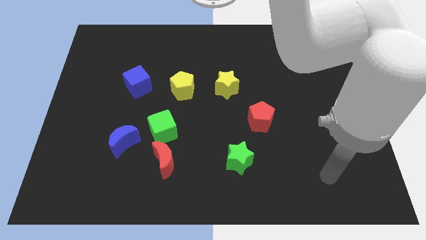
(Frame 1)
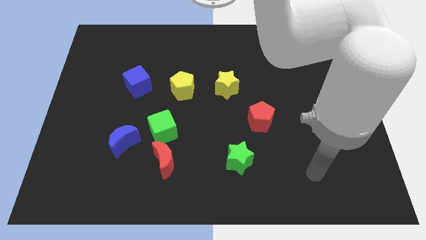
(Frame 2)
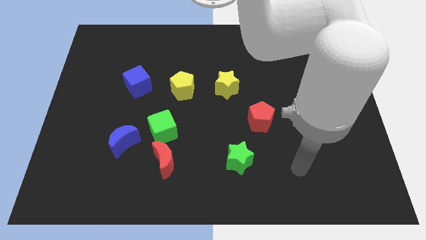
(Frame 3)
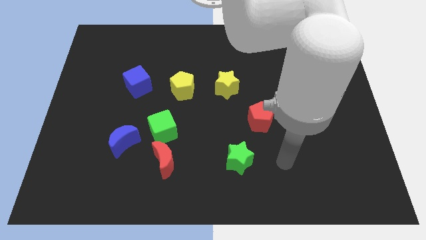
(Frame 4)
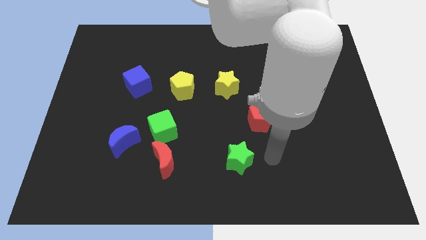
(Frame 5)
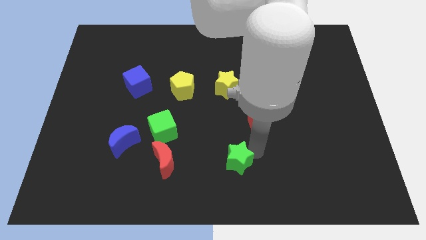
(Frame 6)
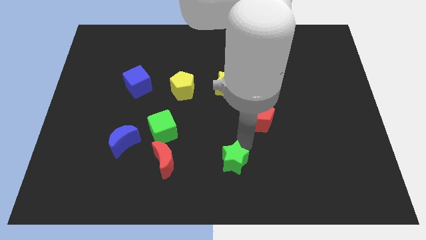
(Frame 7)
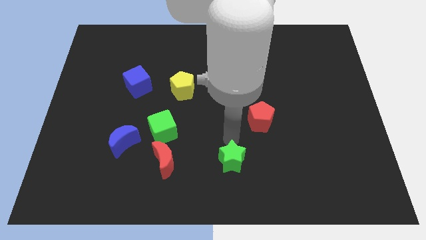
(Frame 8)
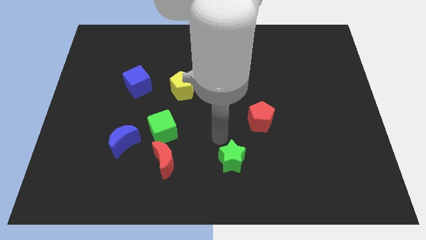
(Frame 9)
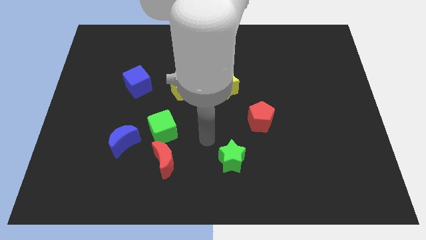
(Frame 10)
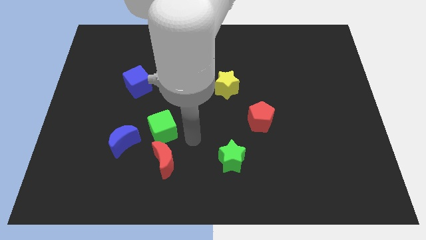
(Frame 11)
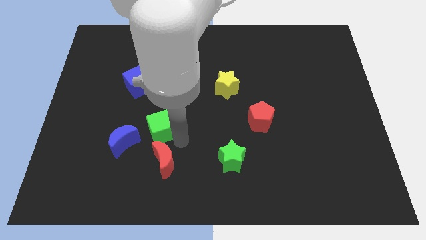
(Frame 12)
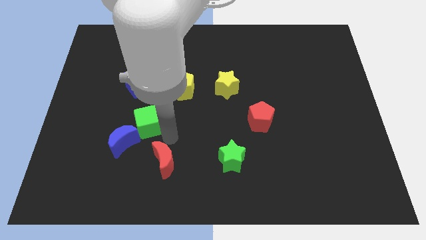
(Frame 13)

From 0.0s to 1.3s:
separate the red moon from the green cube

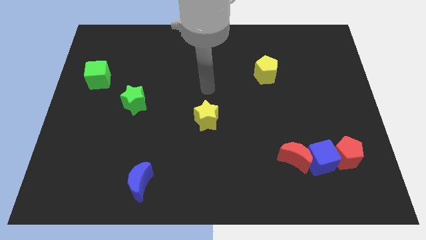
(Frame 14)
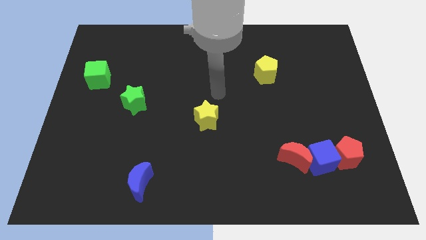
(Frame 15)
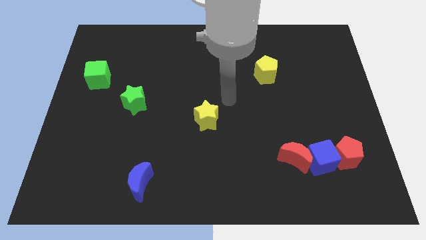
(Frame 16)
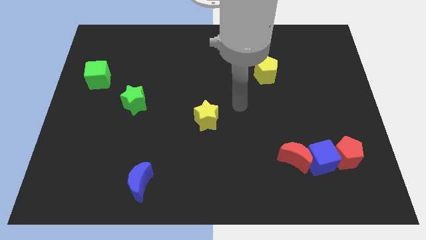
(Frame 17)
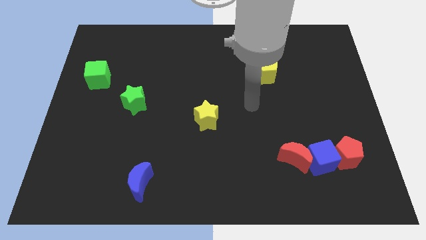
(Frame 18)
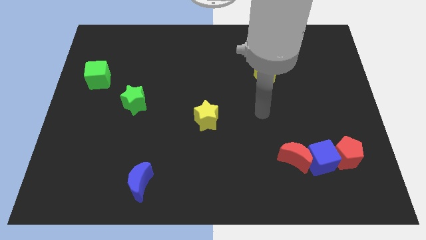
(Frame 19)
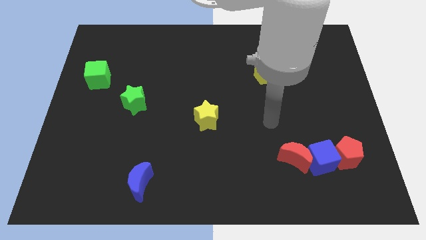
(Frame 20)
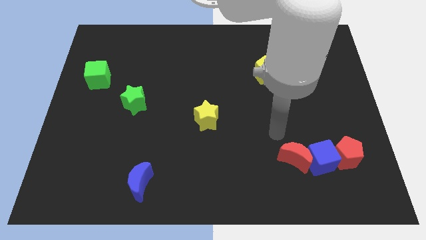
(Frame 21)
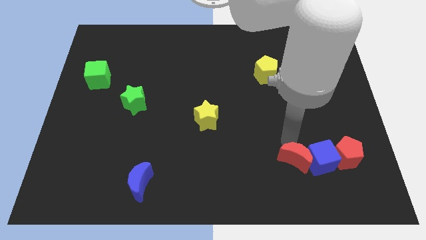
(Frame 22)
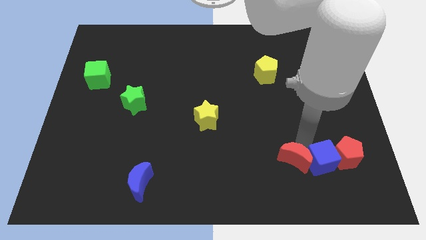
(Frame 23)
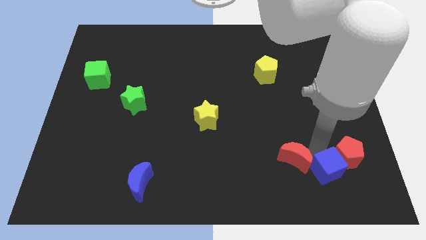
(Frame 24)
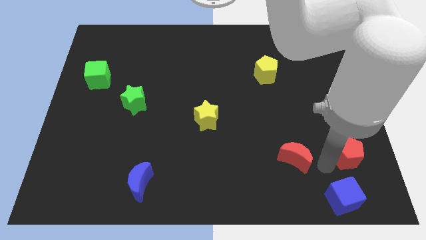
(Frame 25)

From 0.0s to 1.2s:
separate the red moon from the blue cube

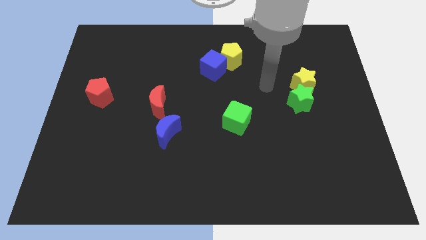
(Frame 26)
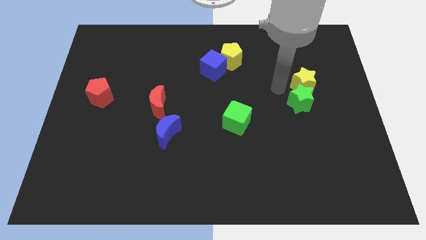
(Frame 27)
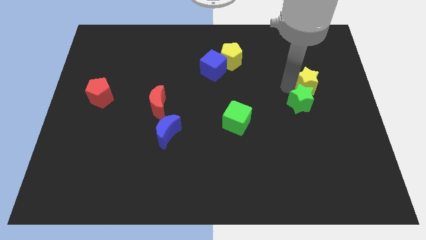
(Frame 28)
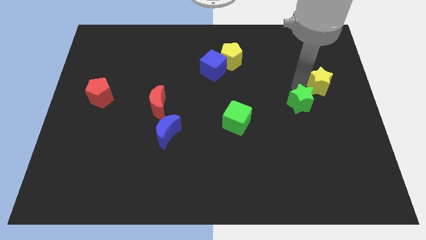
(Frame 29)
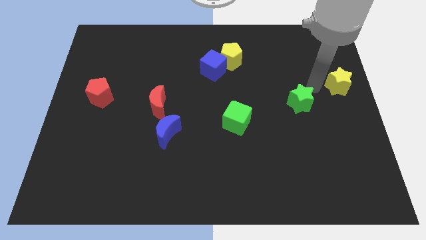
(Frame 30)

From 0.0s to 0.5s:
pull the green star apart from the yellow star

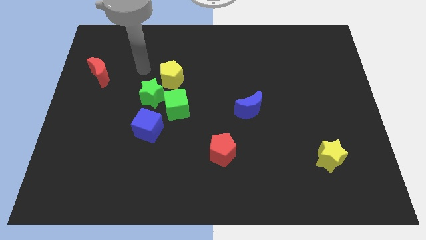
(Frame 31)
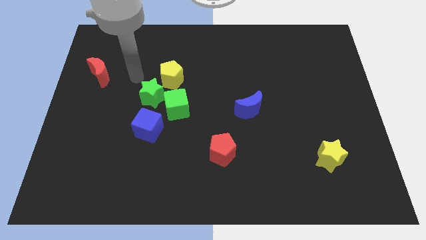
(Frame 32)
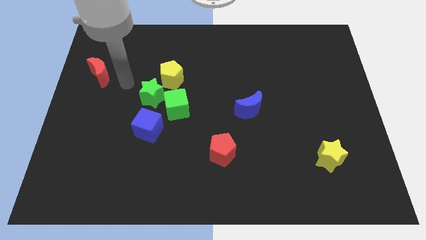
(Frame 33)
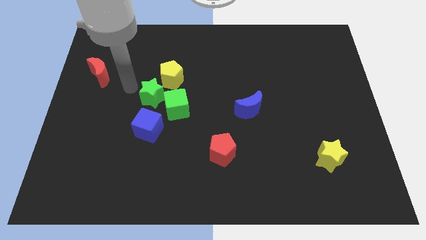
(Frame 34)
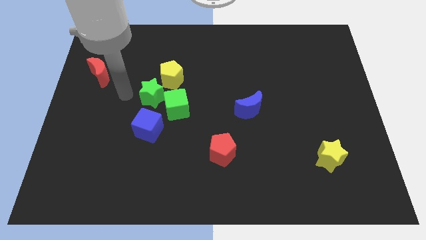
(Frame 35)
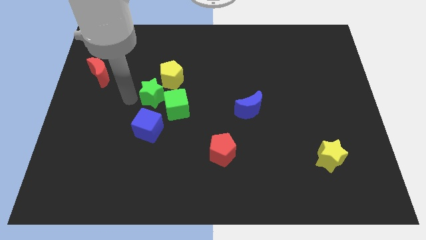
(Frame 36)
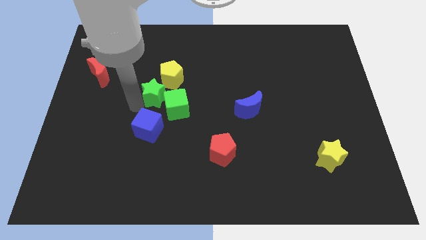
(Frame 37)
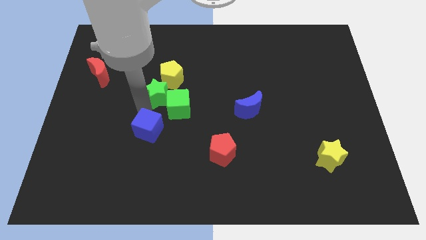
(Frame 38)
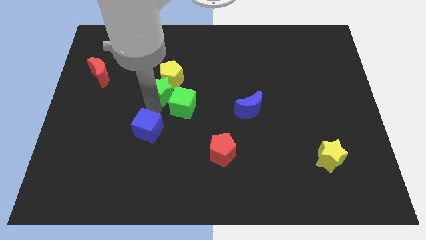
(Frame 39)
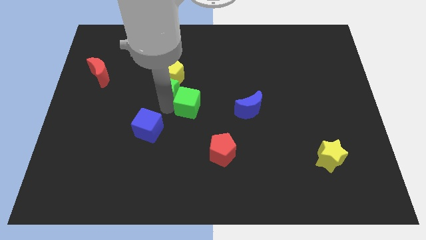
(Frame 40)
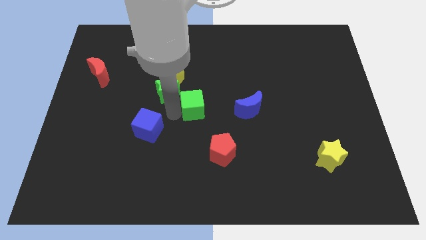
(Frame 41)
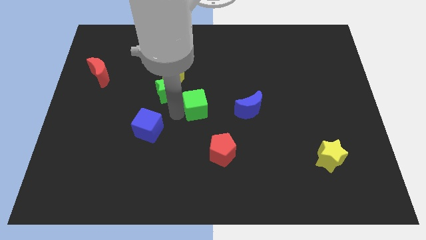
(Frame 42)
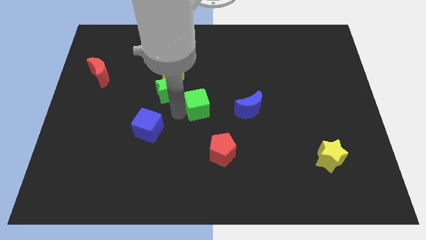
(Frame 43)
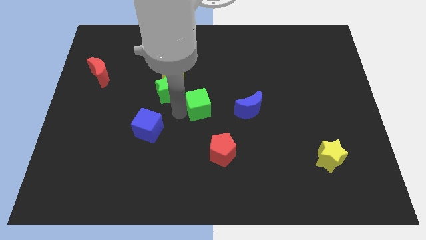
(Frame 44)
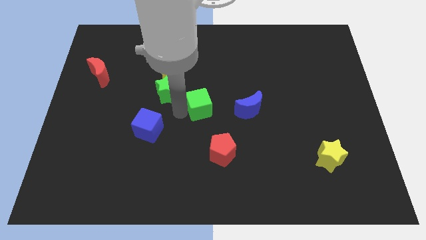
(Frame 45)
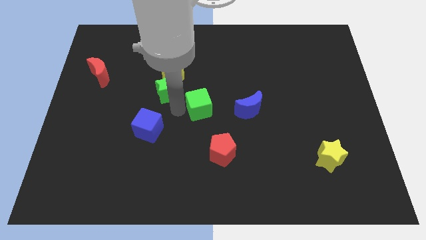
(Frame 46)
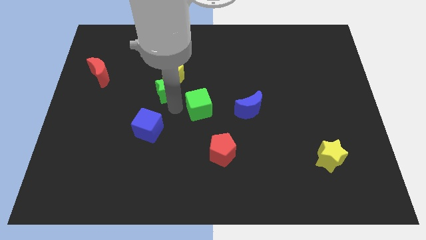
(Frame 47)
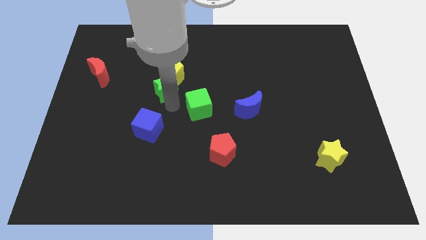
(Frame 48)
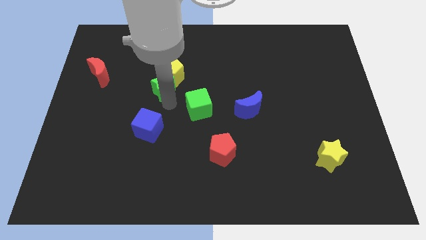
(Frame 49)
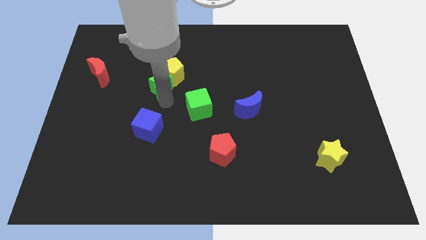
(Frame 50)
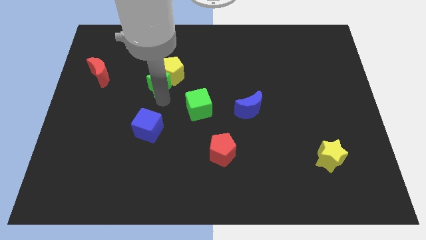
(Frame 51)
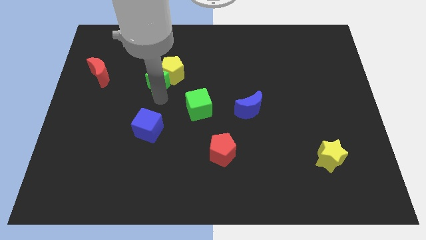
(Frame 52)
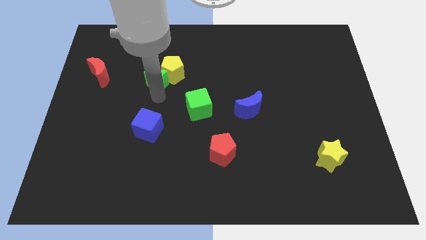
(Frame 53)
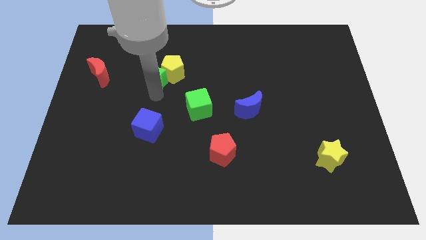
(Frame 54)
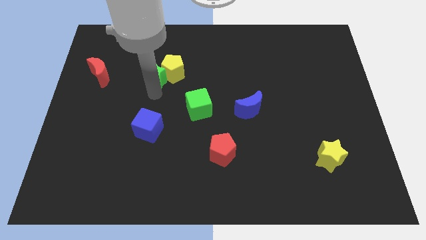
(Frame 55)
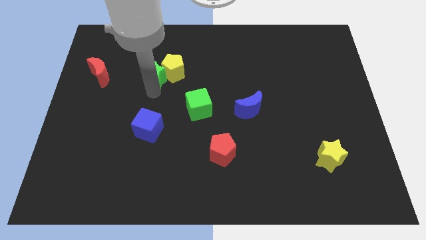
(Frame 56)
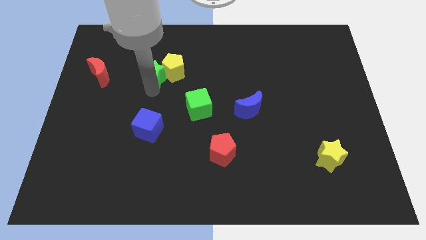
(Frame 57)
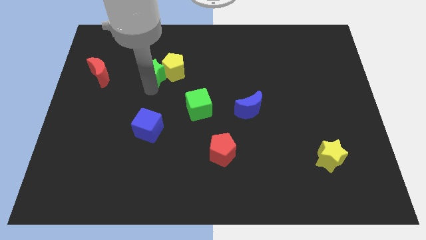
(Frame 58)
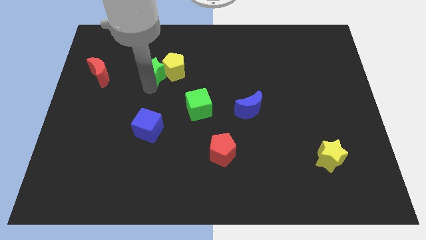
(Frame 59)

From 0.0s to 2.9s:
move the green star away from the group

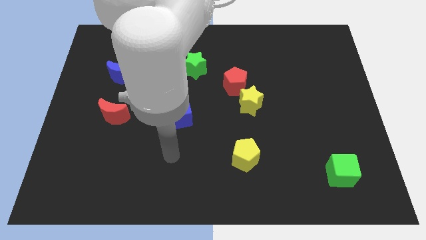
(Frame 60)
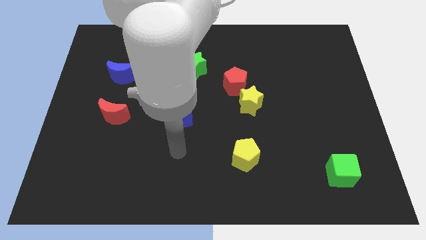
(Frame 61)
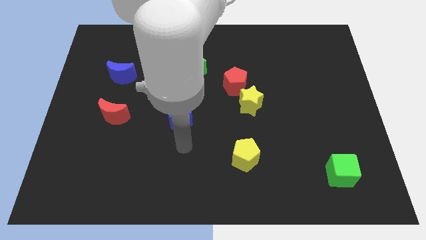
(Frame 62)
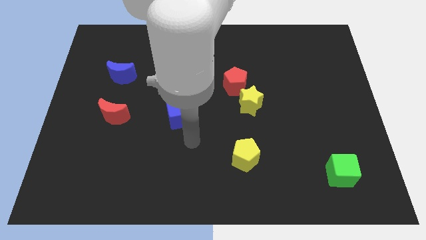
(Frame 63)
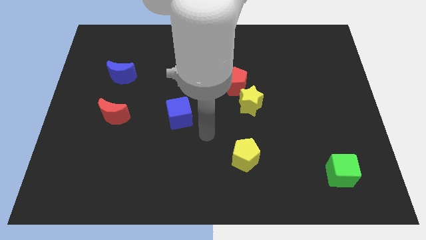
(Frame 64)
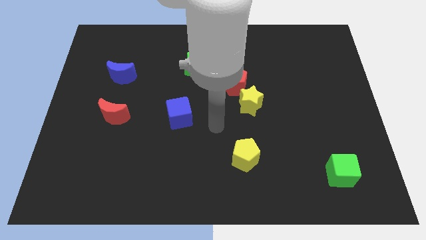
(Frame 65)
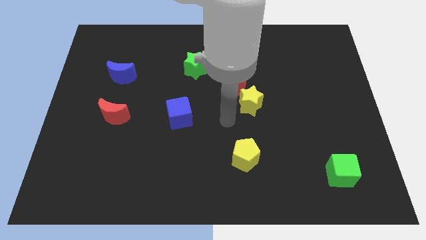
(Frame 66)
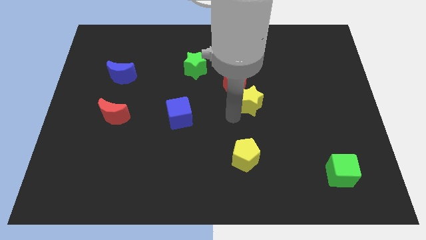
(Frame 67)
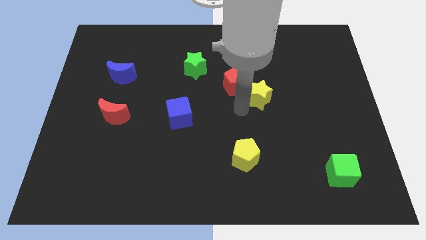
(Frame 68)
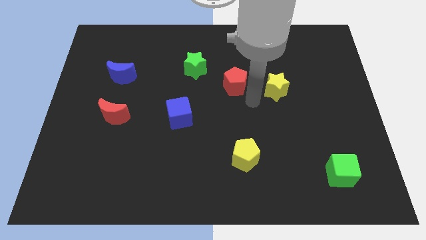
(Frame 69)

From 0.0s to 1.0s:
move the red pentagon away from the yellow star

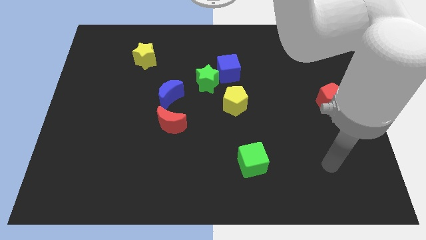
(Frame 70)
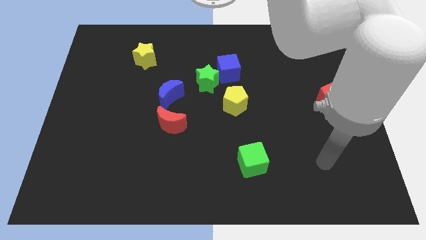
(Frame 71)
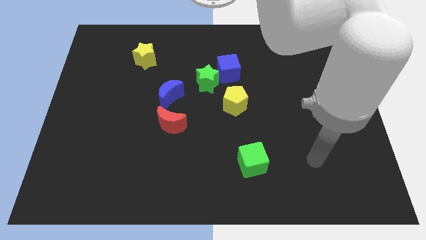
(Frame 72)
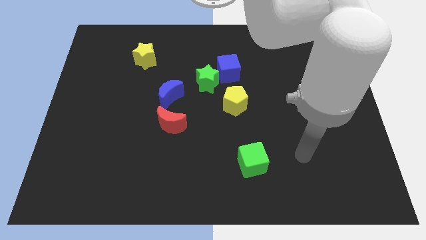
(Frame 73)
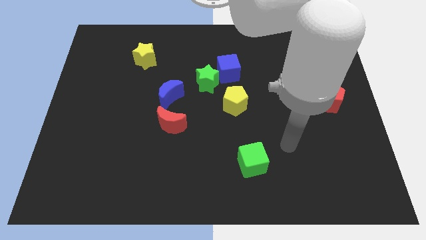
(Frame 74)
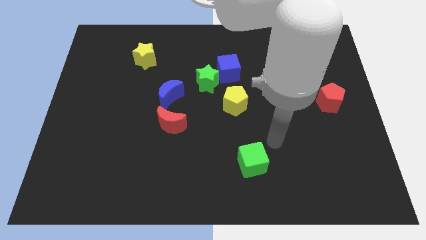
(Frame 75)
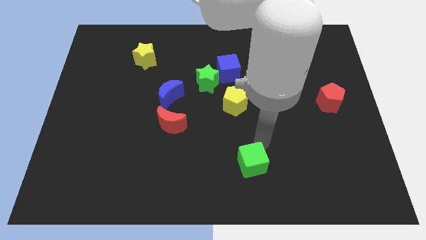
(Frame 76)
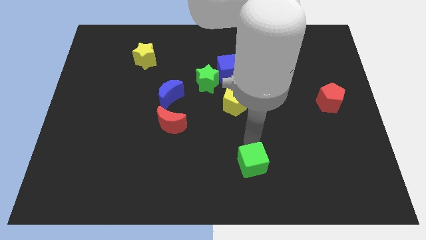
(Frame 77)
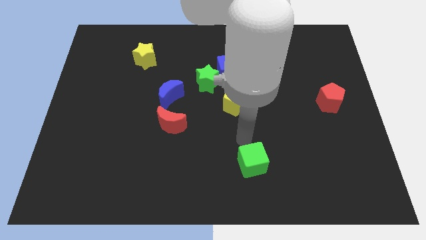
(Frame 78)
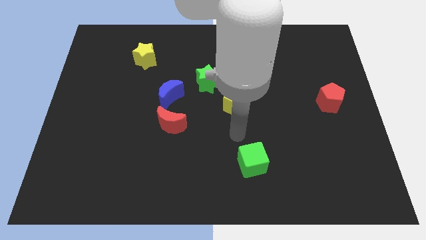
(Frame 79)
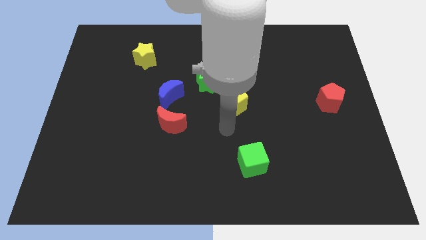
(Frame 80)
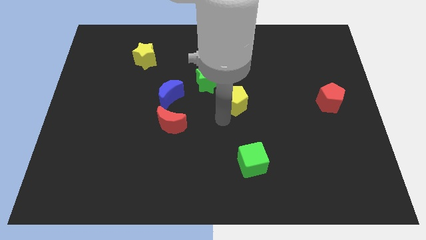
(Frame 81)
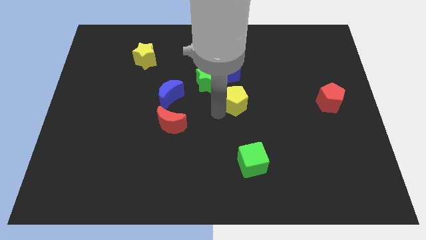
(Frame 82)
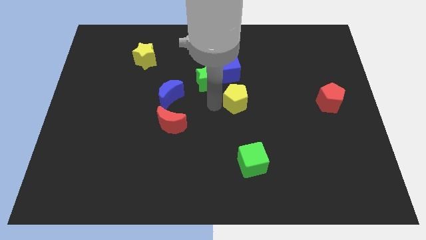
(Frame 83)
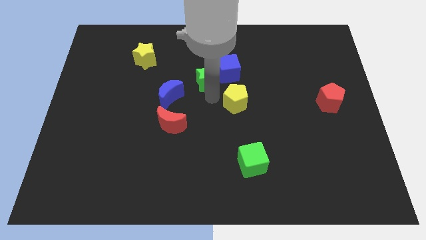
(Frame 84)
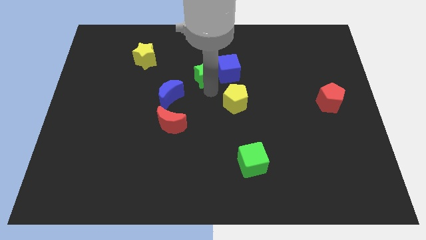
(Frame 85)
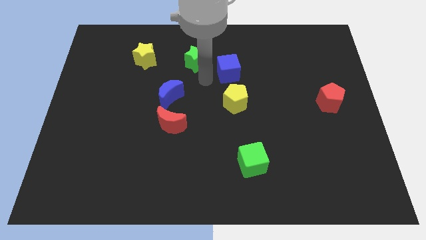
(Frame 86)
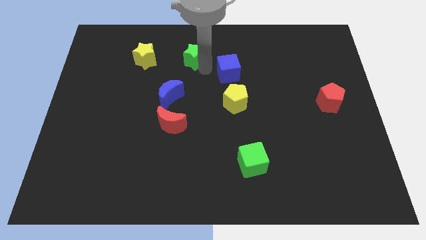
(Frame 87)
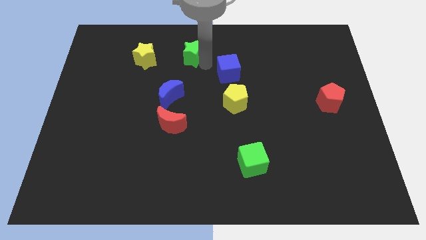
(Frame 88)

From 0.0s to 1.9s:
pull the blue cube apart from the green star

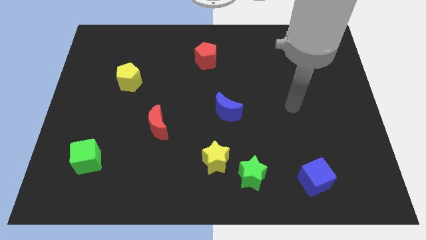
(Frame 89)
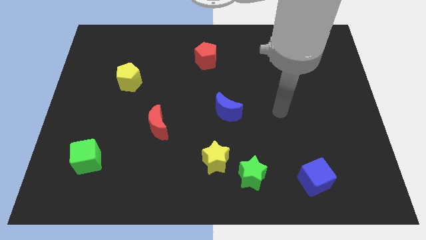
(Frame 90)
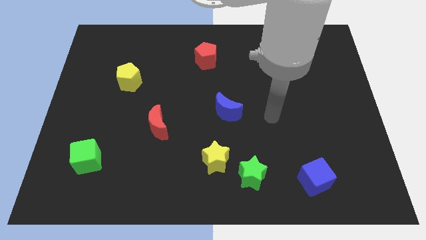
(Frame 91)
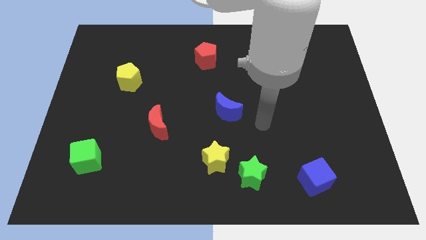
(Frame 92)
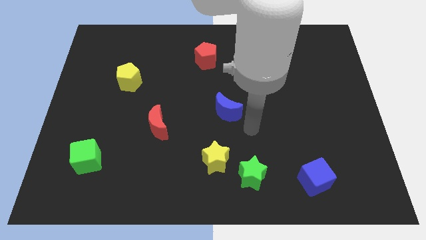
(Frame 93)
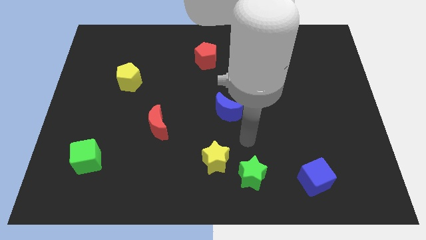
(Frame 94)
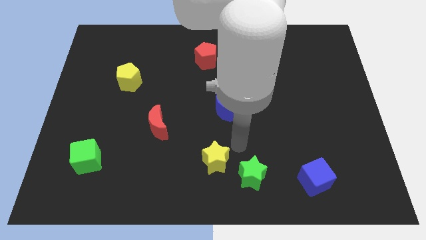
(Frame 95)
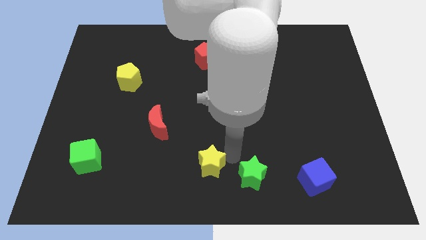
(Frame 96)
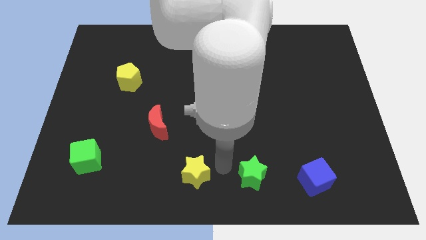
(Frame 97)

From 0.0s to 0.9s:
separate the green star from the yellow star
